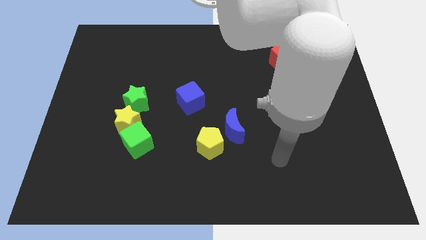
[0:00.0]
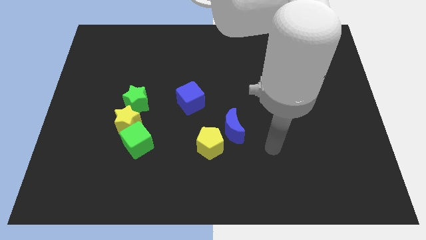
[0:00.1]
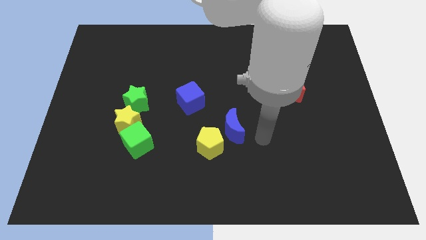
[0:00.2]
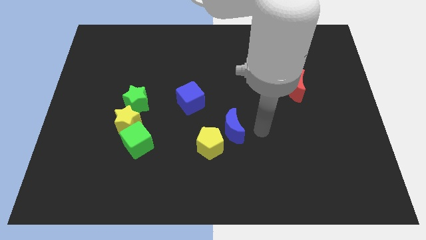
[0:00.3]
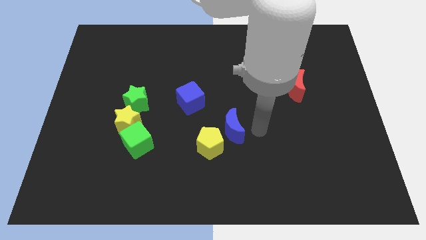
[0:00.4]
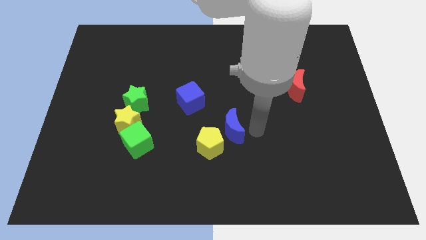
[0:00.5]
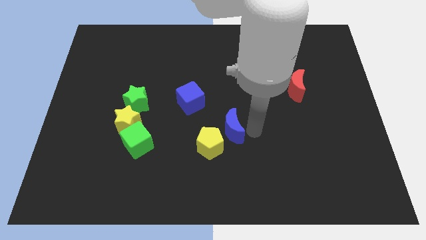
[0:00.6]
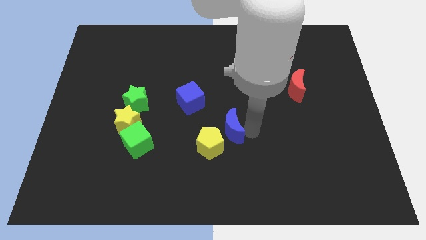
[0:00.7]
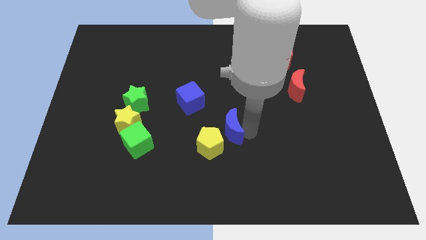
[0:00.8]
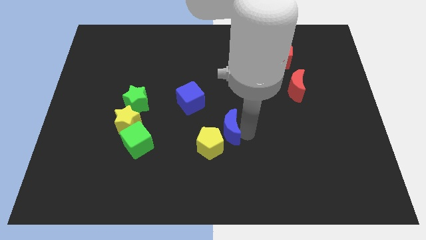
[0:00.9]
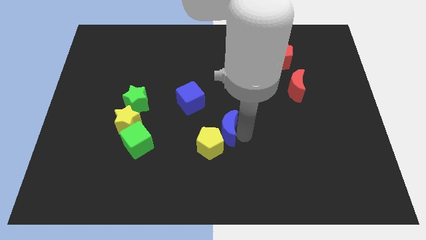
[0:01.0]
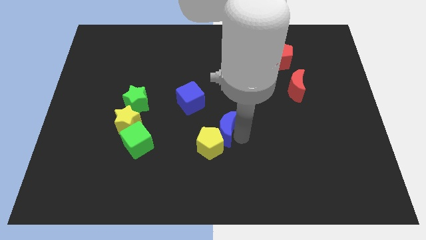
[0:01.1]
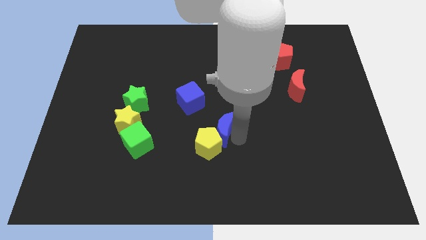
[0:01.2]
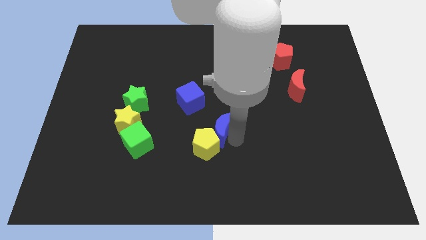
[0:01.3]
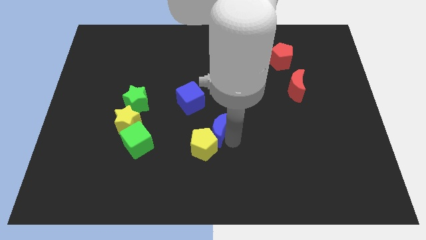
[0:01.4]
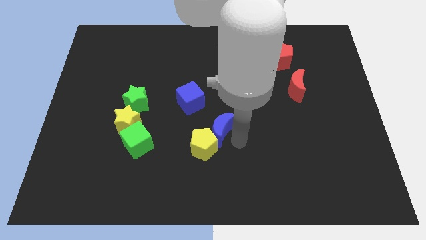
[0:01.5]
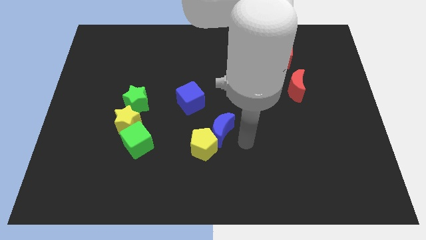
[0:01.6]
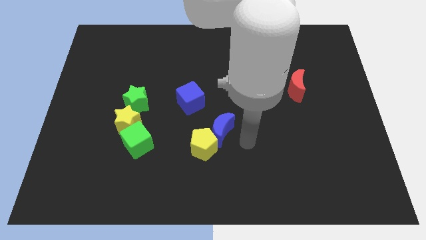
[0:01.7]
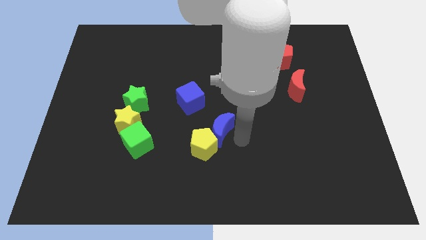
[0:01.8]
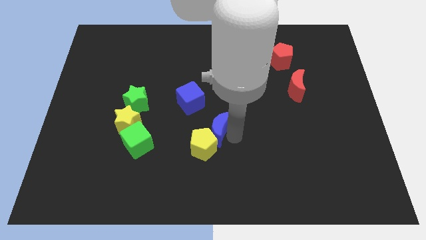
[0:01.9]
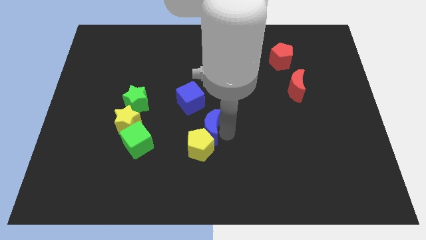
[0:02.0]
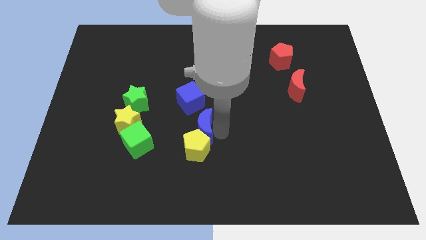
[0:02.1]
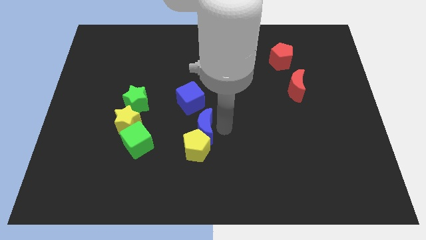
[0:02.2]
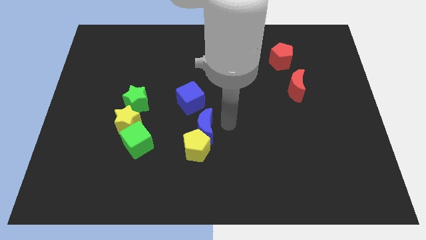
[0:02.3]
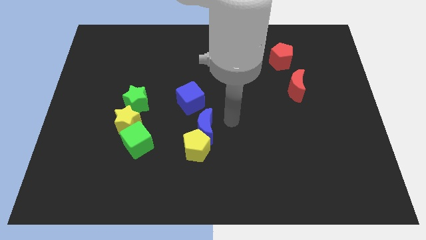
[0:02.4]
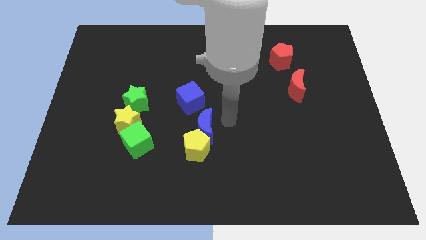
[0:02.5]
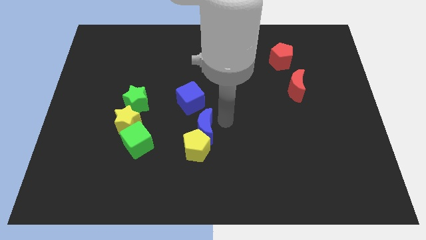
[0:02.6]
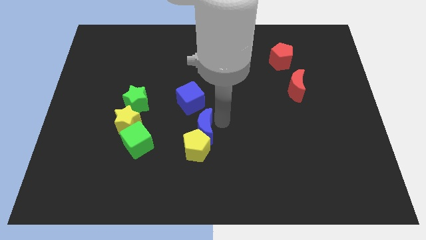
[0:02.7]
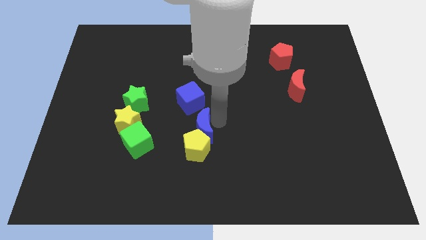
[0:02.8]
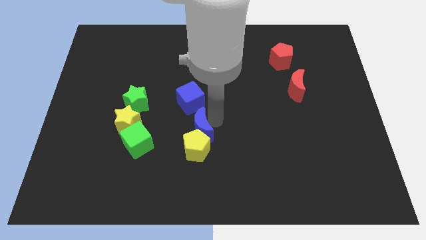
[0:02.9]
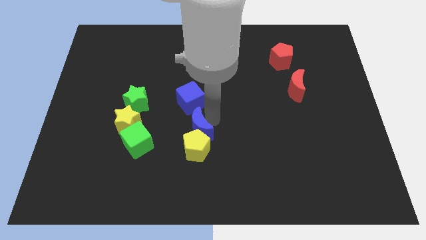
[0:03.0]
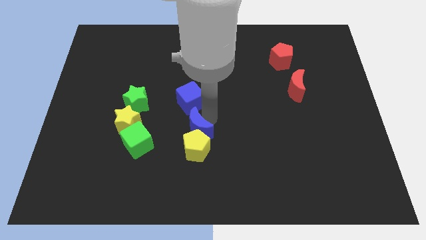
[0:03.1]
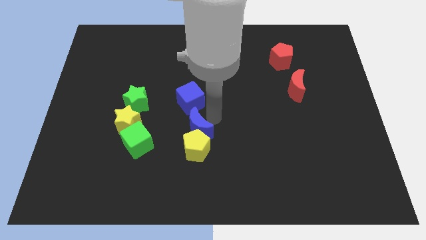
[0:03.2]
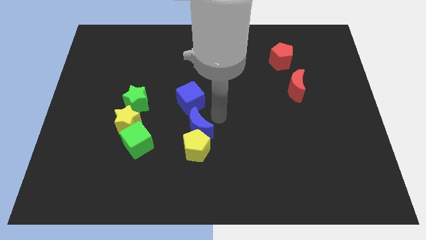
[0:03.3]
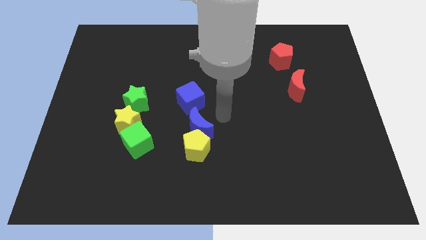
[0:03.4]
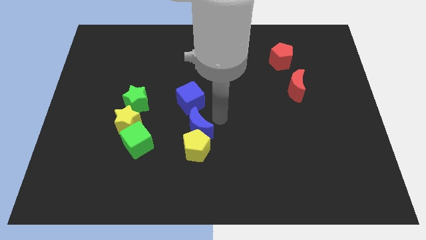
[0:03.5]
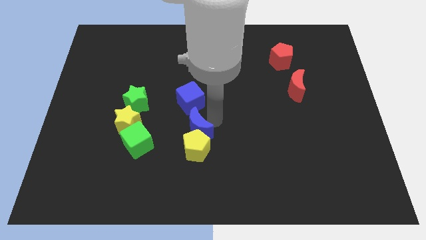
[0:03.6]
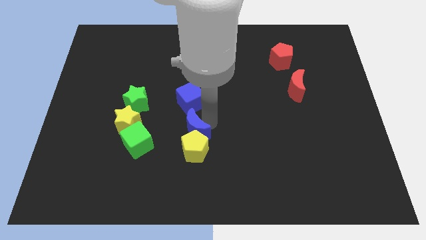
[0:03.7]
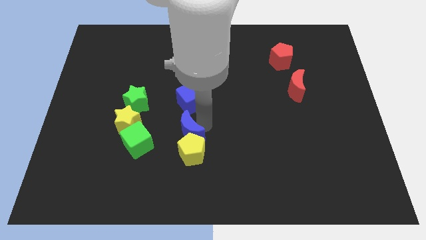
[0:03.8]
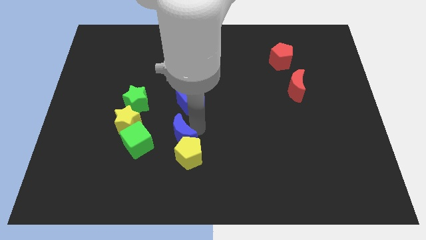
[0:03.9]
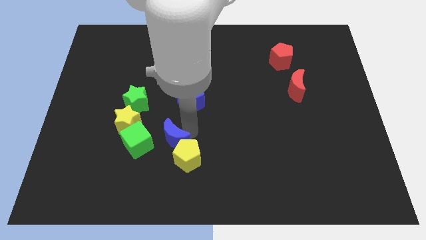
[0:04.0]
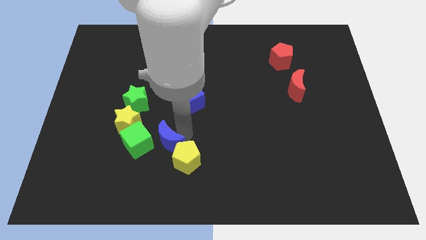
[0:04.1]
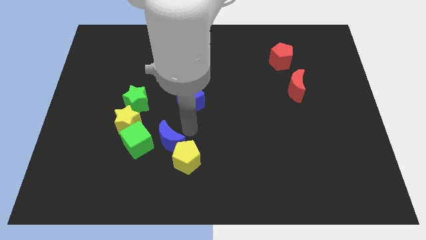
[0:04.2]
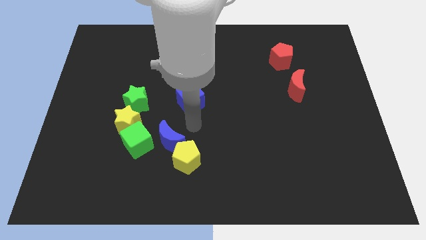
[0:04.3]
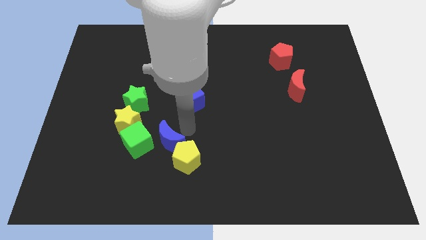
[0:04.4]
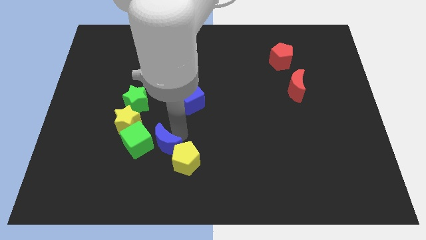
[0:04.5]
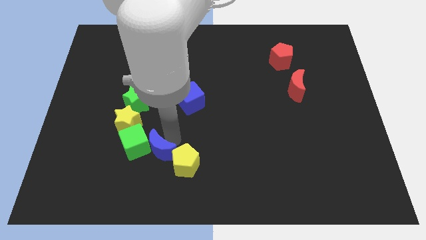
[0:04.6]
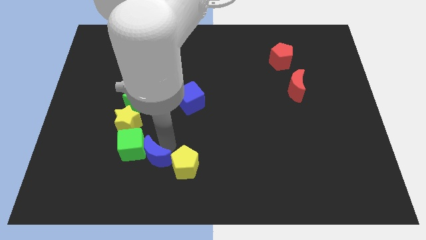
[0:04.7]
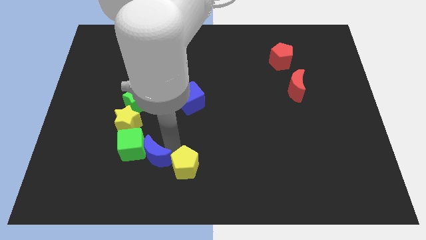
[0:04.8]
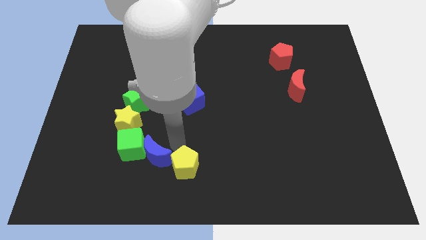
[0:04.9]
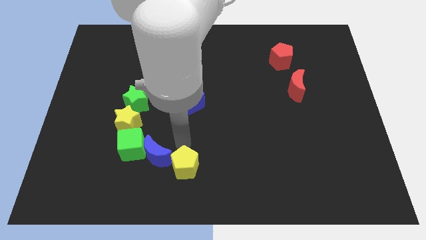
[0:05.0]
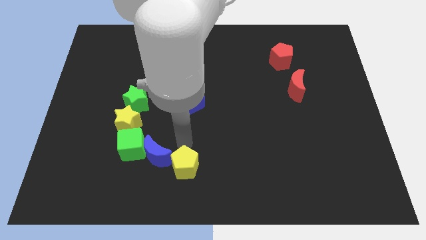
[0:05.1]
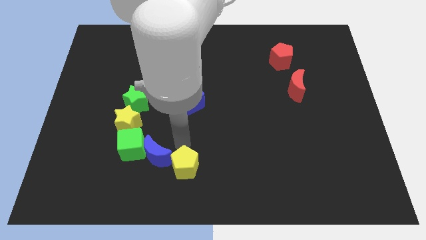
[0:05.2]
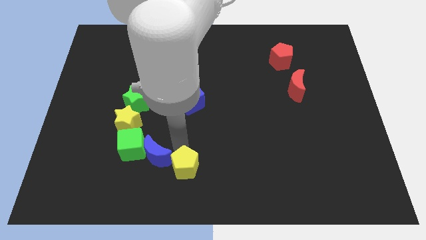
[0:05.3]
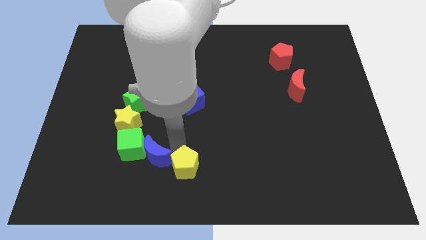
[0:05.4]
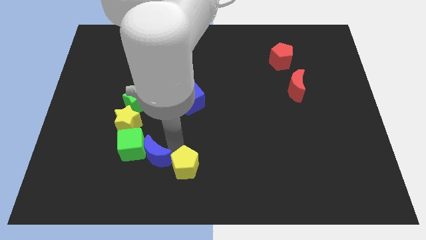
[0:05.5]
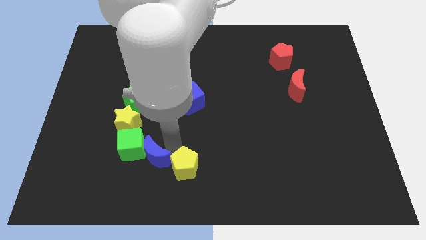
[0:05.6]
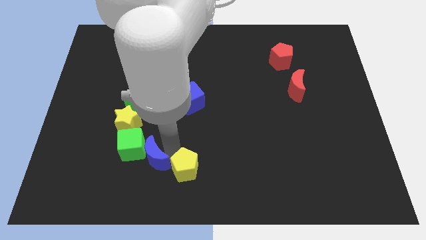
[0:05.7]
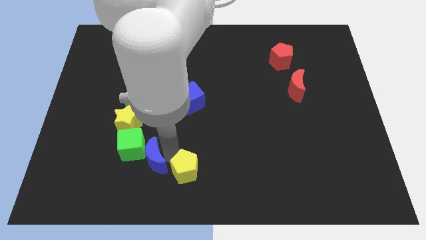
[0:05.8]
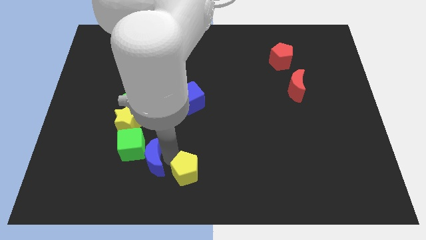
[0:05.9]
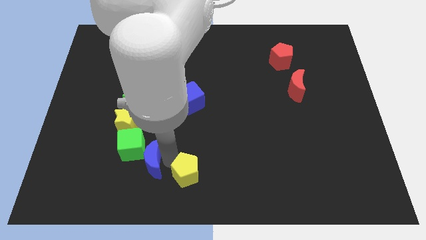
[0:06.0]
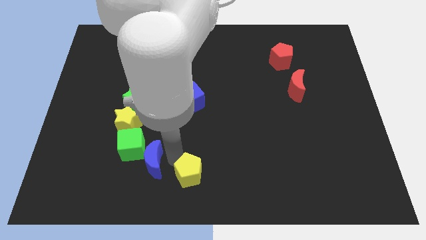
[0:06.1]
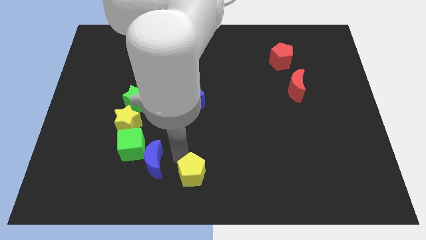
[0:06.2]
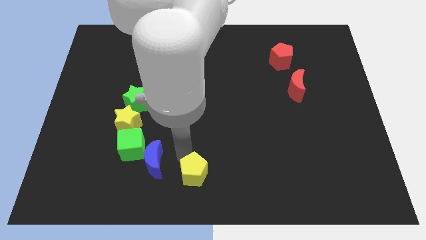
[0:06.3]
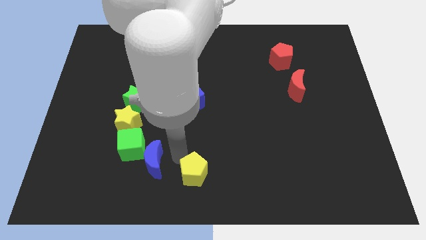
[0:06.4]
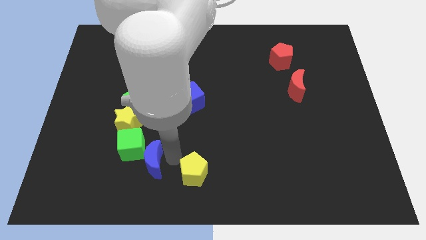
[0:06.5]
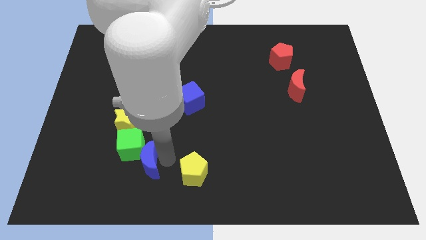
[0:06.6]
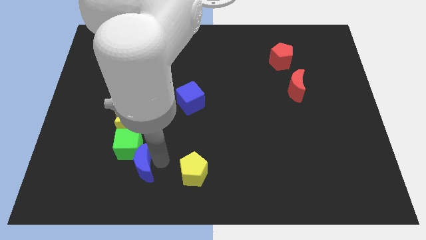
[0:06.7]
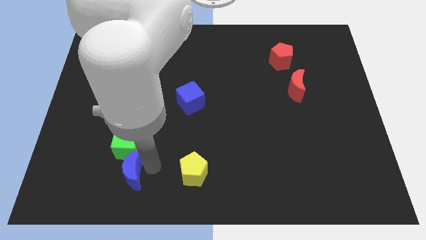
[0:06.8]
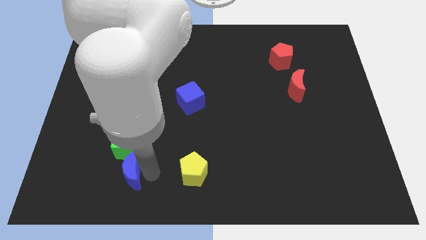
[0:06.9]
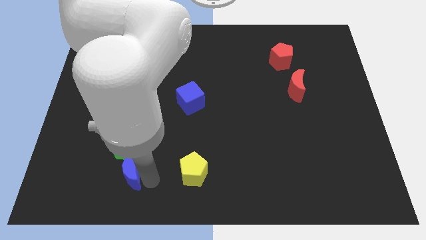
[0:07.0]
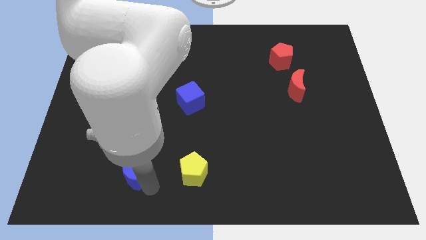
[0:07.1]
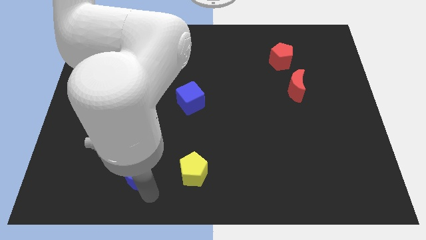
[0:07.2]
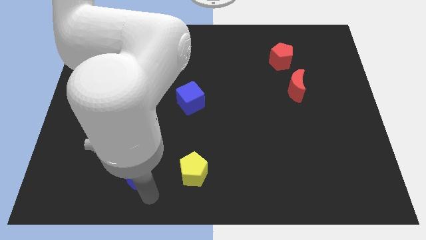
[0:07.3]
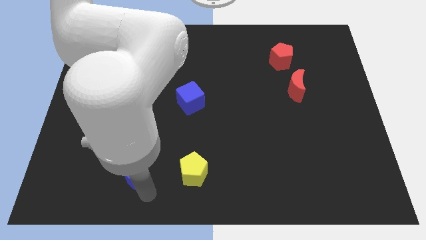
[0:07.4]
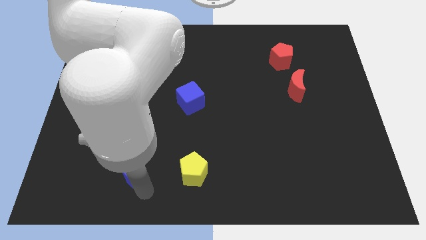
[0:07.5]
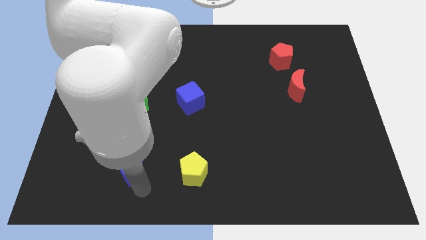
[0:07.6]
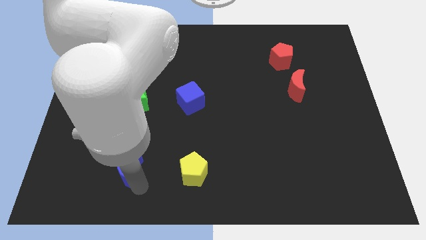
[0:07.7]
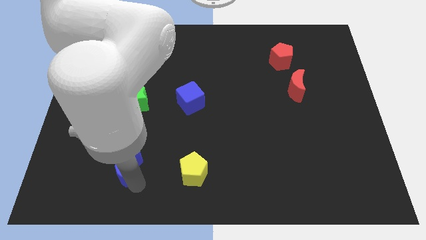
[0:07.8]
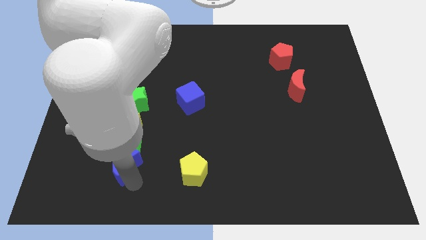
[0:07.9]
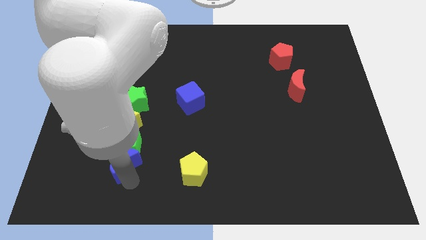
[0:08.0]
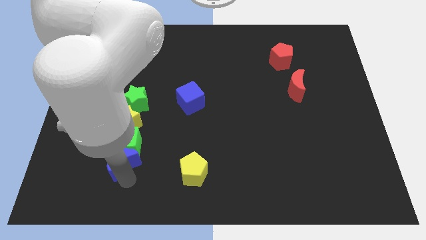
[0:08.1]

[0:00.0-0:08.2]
slide the blue moon to the left
